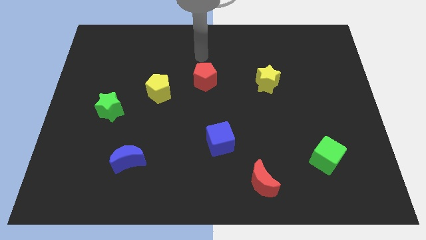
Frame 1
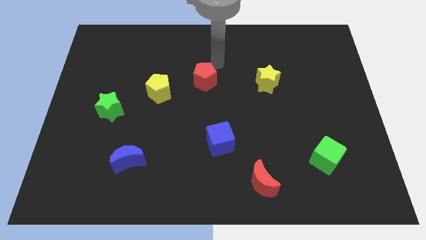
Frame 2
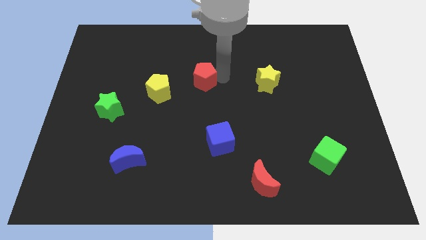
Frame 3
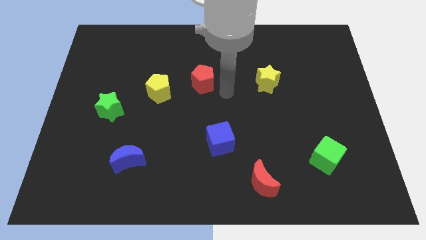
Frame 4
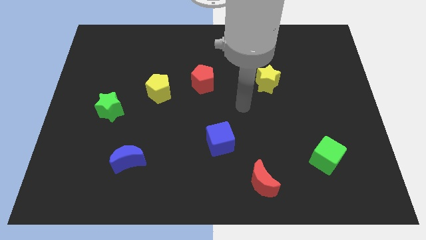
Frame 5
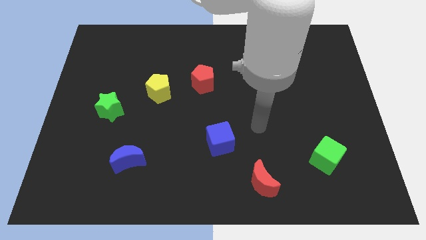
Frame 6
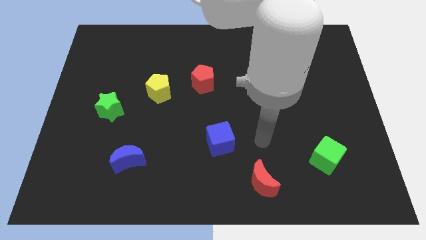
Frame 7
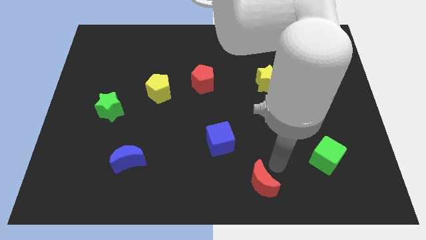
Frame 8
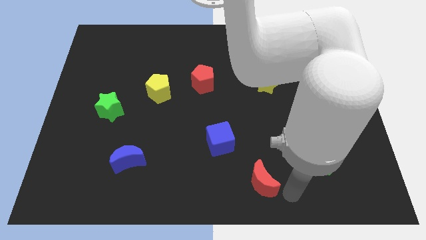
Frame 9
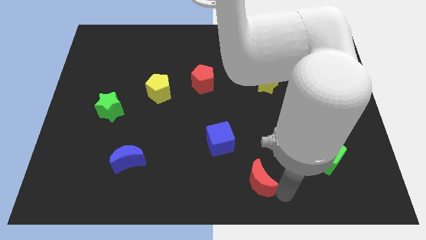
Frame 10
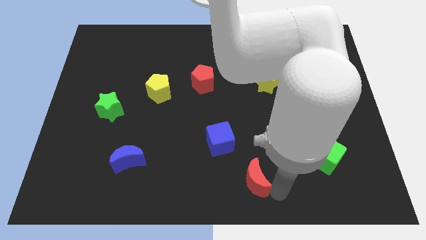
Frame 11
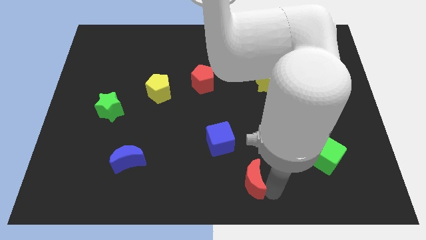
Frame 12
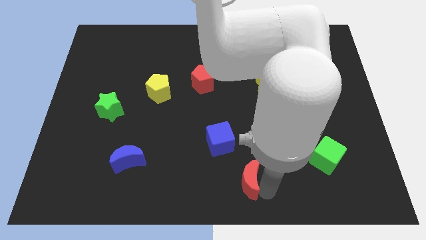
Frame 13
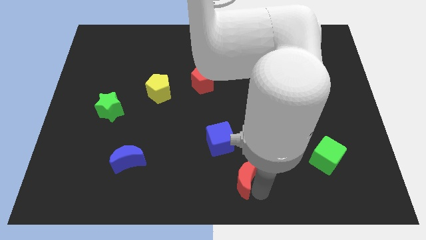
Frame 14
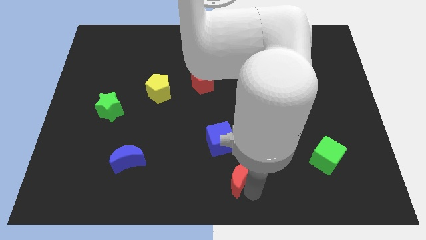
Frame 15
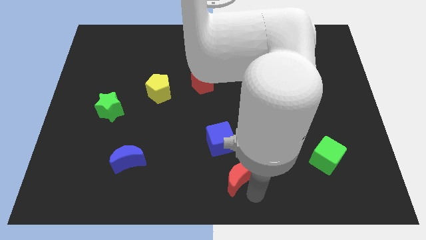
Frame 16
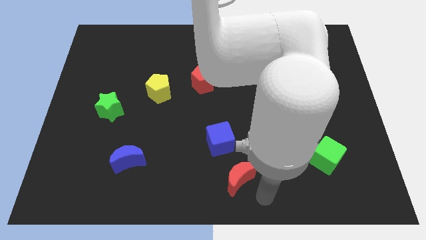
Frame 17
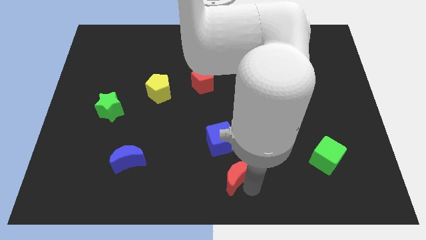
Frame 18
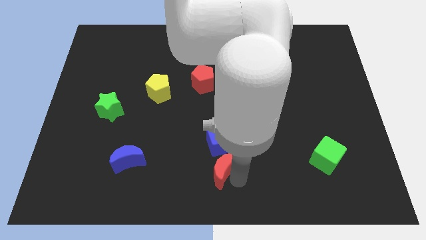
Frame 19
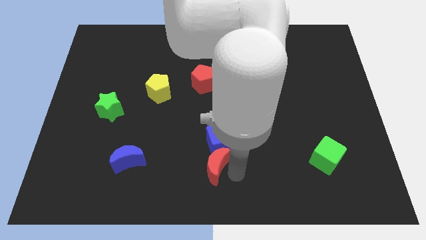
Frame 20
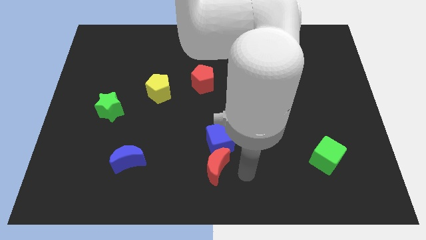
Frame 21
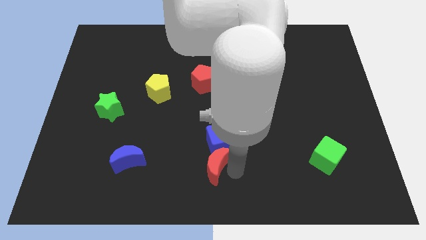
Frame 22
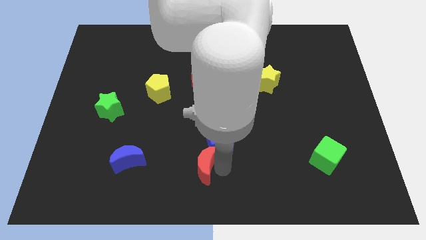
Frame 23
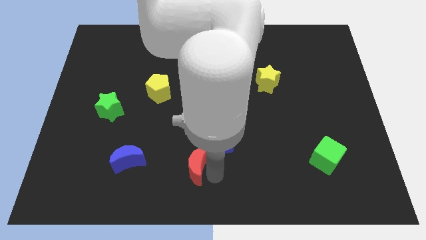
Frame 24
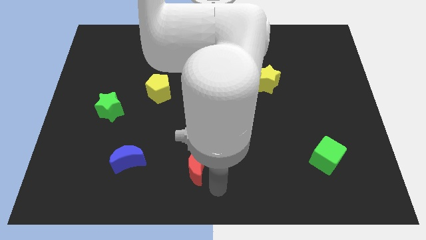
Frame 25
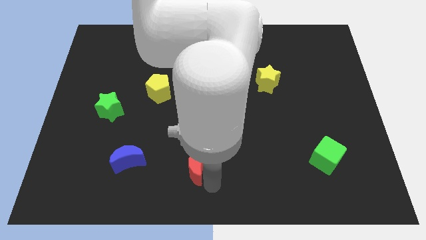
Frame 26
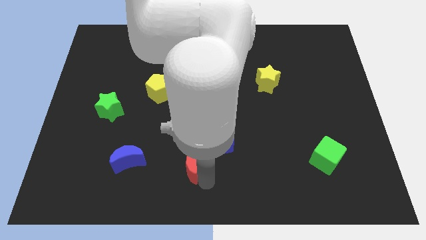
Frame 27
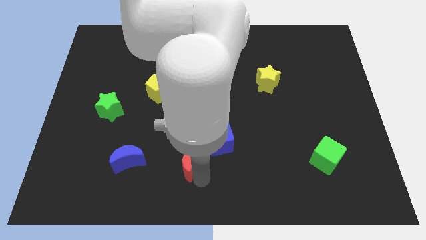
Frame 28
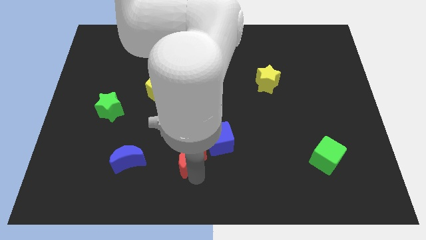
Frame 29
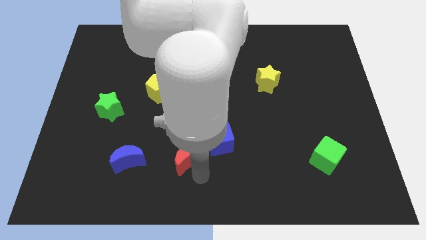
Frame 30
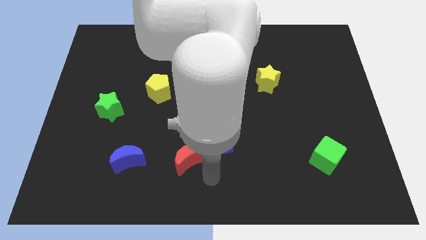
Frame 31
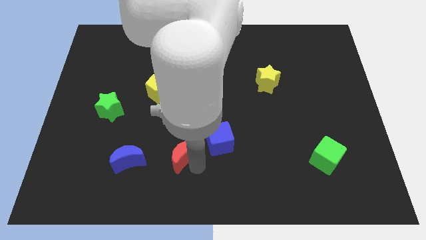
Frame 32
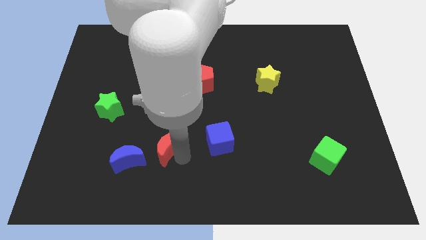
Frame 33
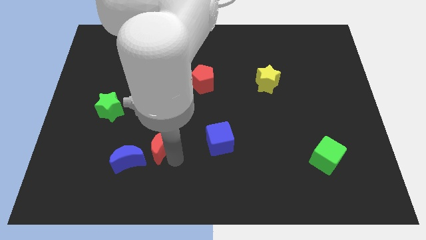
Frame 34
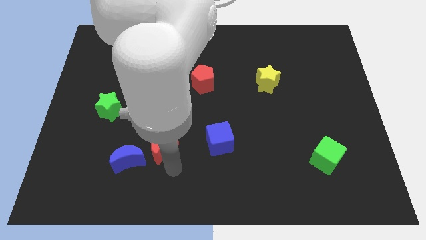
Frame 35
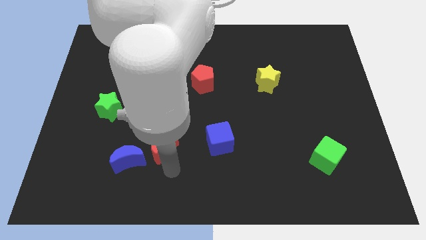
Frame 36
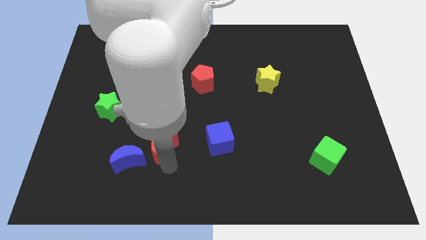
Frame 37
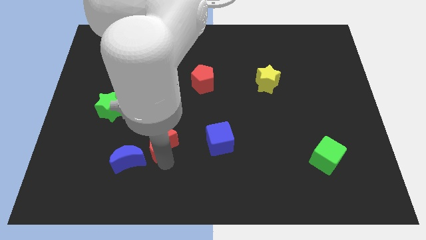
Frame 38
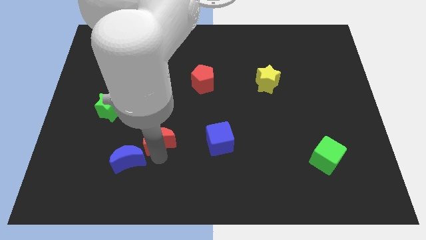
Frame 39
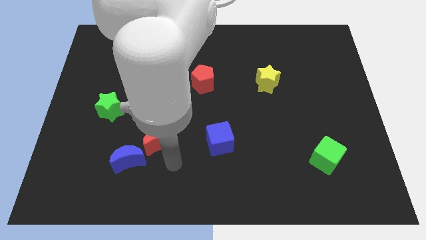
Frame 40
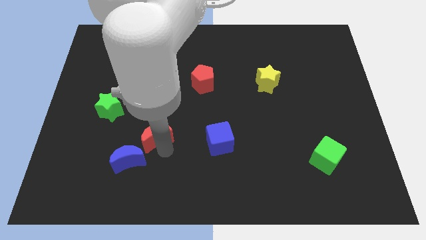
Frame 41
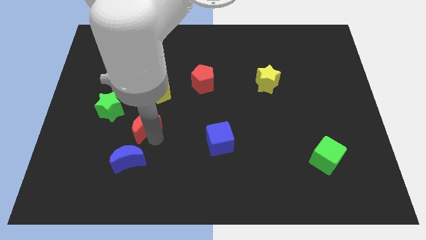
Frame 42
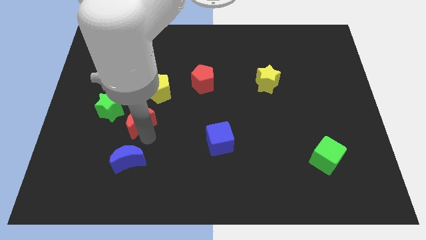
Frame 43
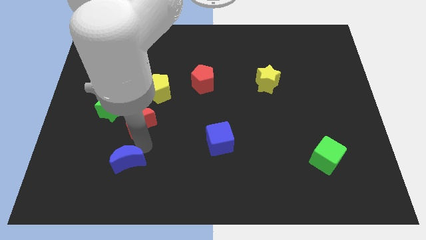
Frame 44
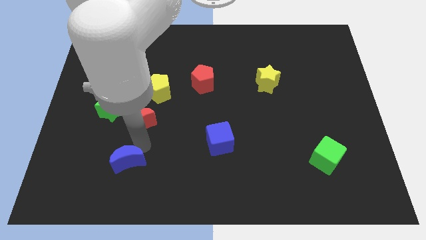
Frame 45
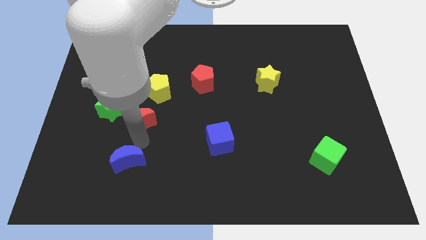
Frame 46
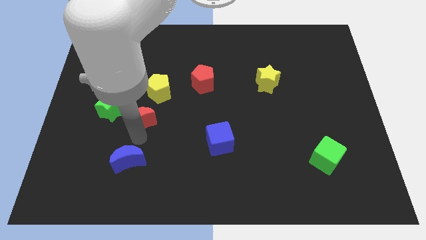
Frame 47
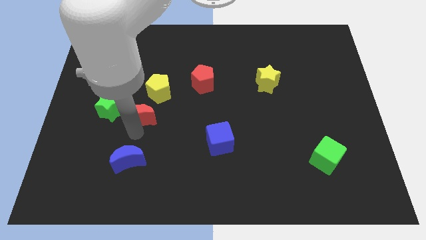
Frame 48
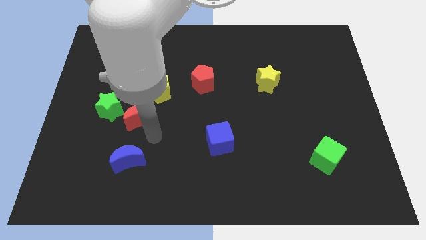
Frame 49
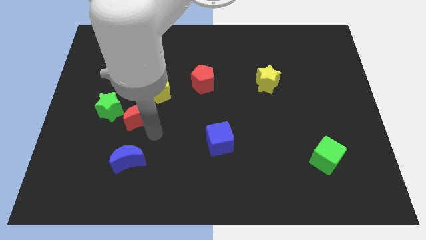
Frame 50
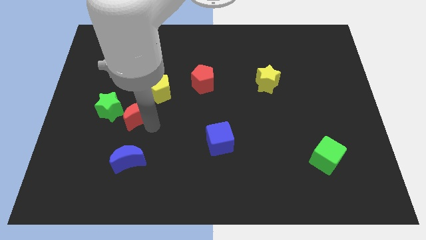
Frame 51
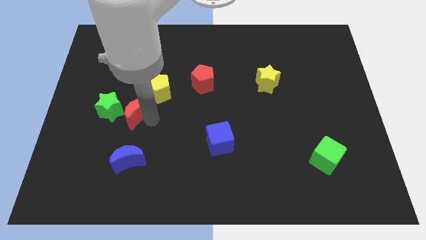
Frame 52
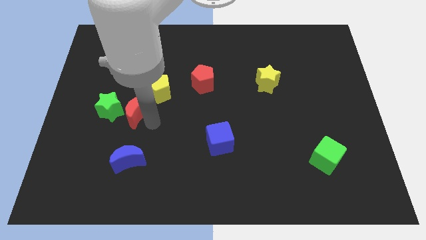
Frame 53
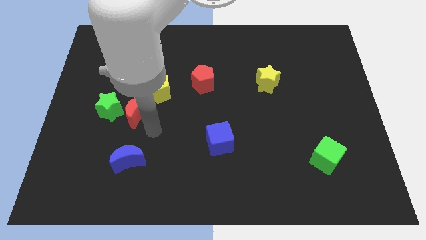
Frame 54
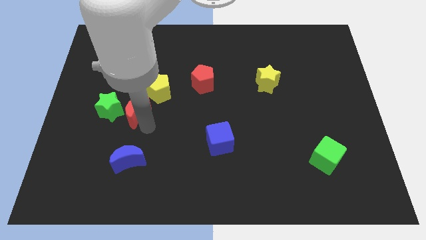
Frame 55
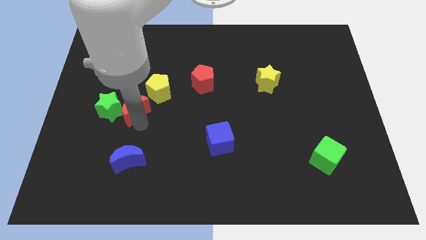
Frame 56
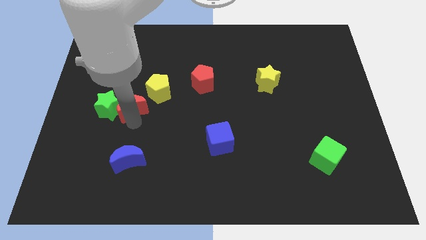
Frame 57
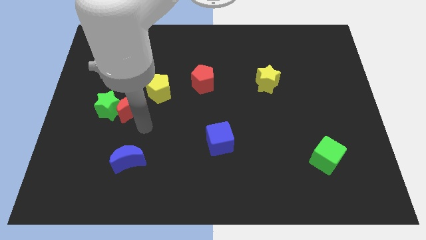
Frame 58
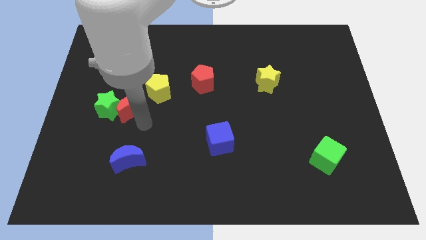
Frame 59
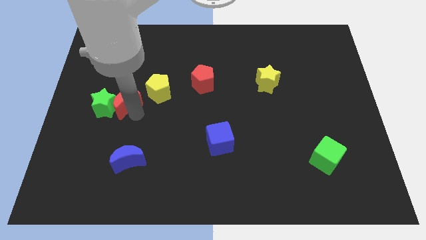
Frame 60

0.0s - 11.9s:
move the red moon to the left of the yellow pentagon

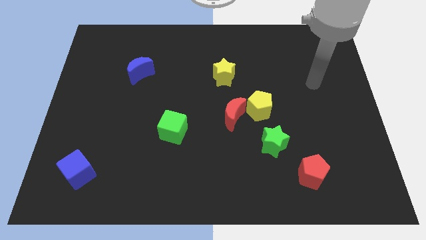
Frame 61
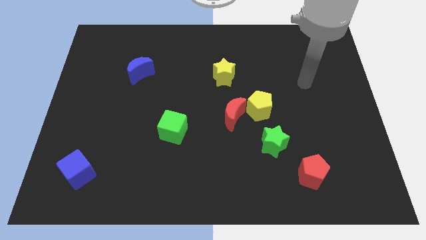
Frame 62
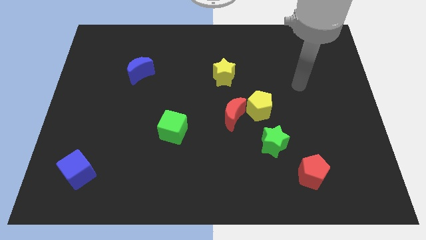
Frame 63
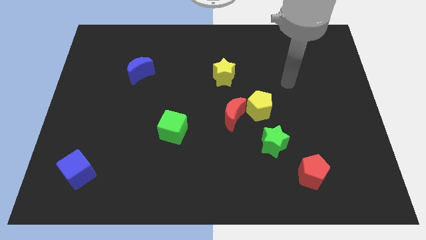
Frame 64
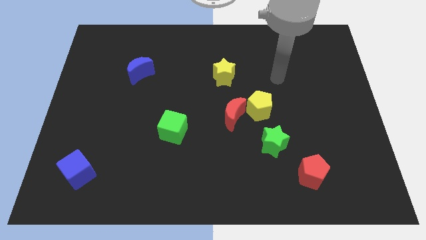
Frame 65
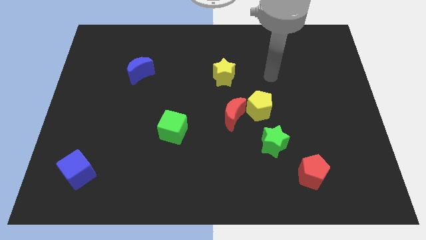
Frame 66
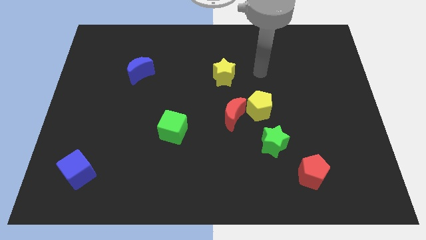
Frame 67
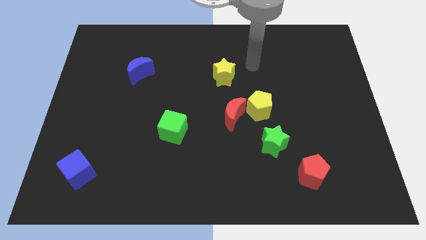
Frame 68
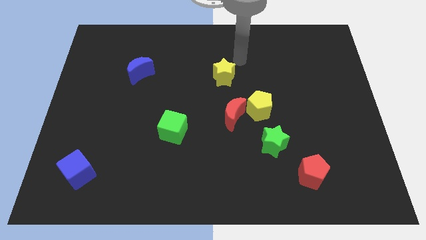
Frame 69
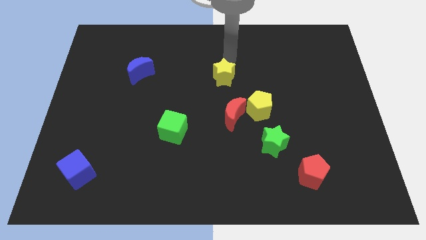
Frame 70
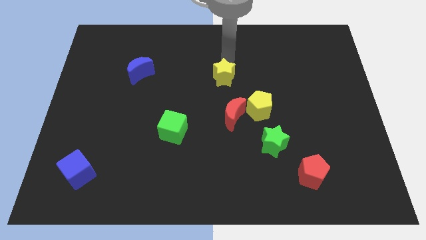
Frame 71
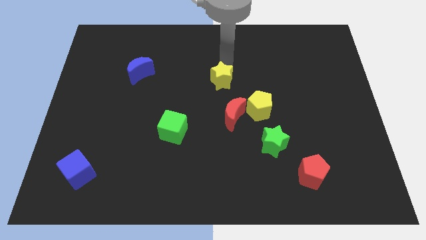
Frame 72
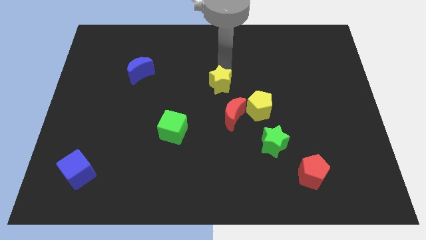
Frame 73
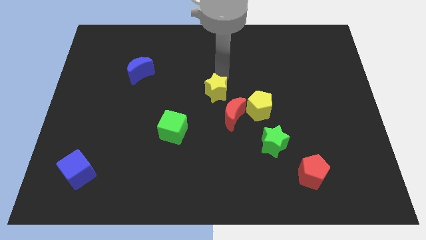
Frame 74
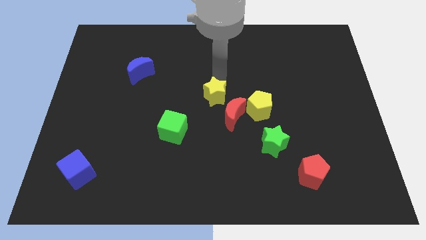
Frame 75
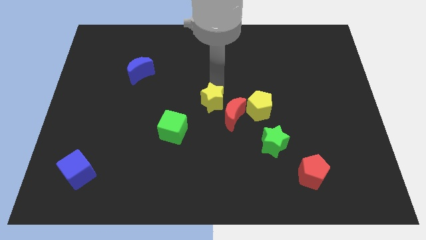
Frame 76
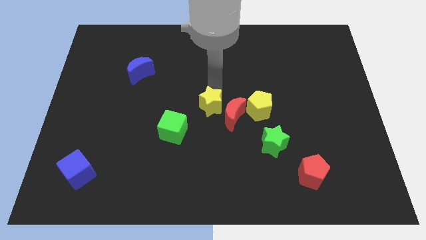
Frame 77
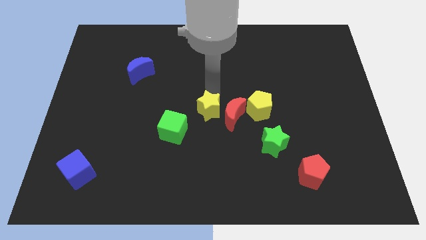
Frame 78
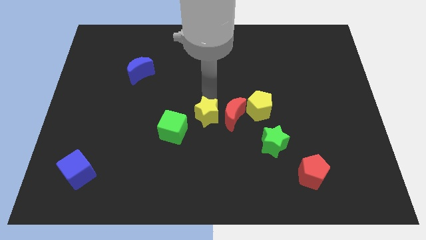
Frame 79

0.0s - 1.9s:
move the yellow star right of the green cube
